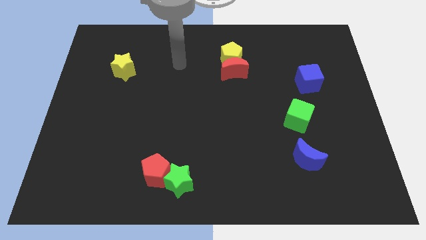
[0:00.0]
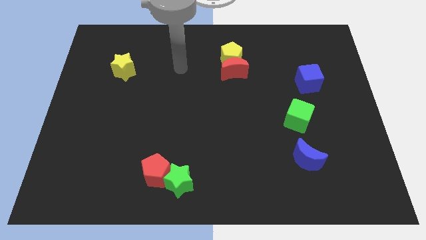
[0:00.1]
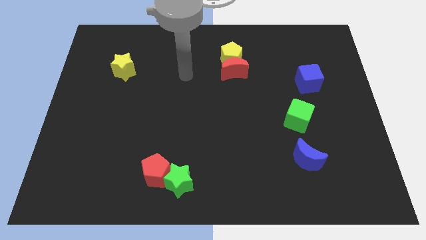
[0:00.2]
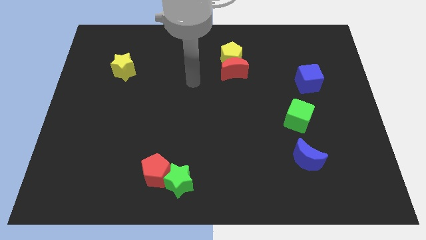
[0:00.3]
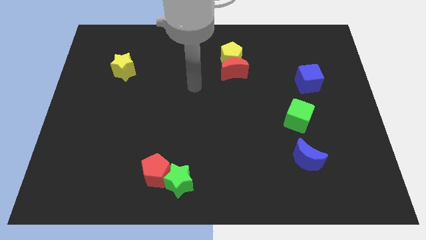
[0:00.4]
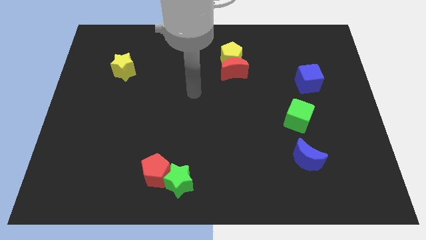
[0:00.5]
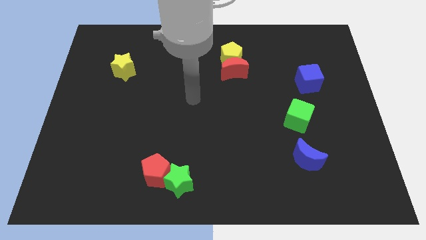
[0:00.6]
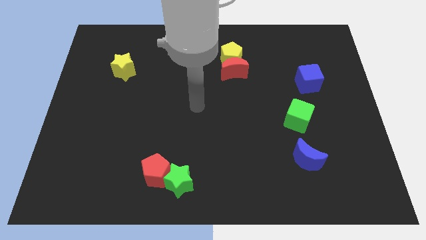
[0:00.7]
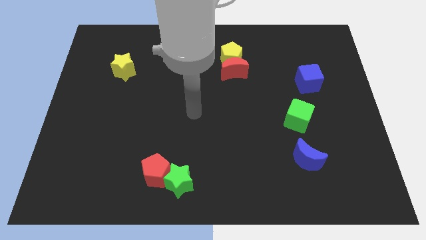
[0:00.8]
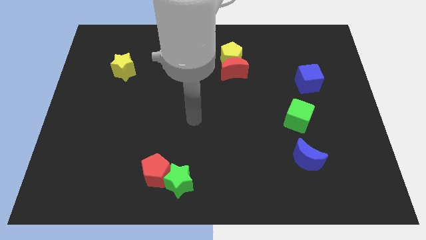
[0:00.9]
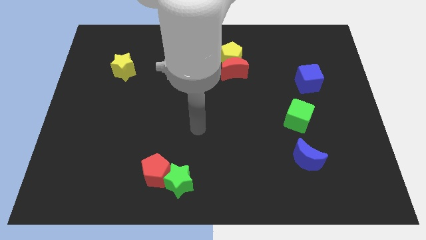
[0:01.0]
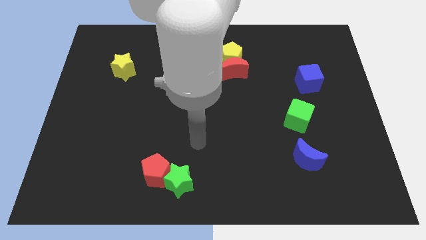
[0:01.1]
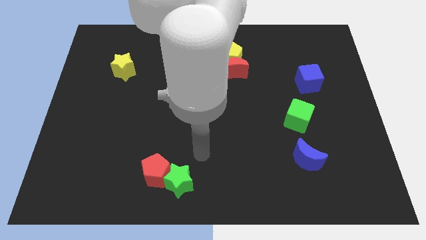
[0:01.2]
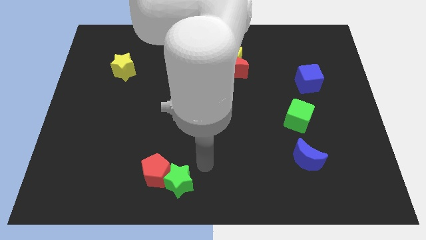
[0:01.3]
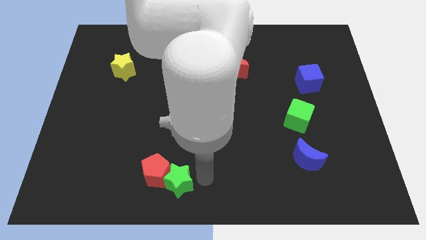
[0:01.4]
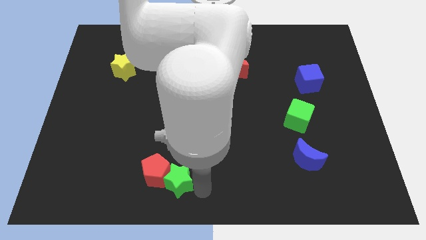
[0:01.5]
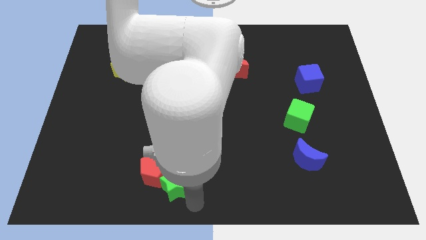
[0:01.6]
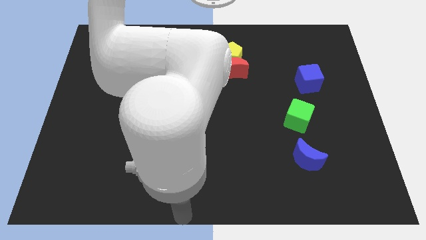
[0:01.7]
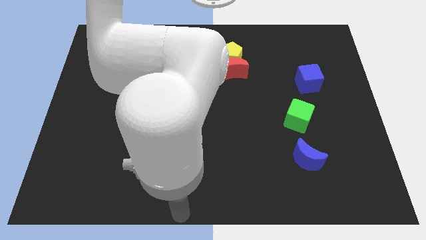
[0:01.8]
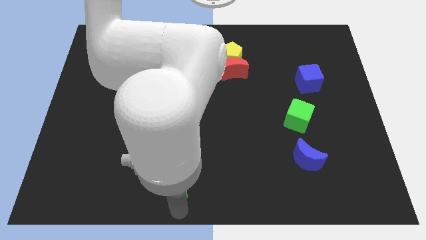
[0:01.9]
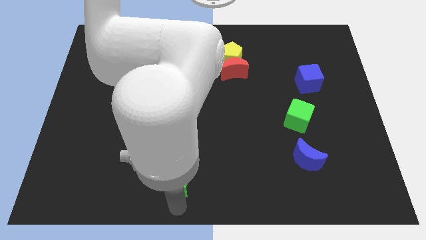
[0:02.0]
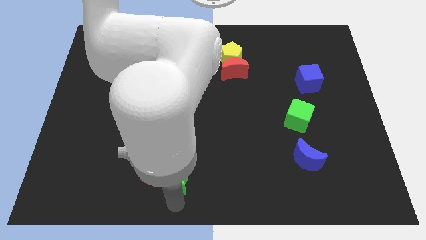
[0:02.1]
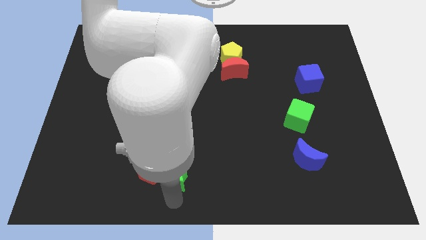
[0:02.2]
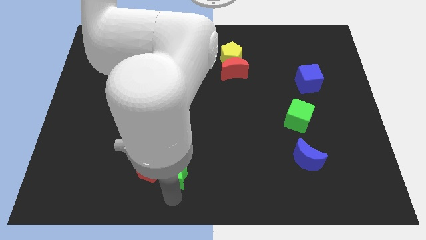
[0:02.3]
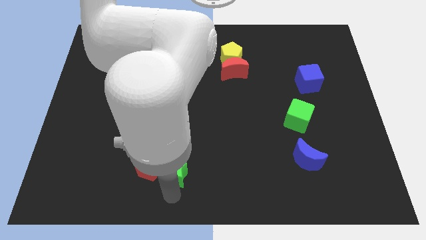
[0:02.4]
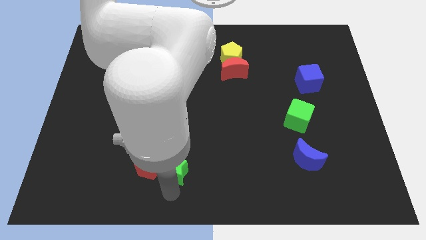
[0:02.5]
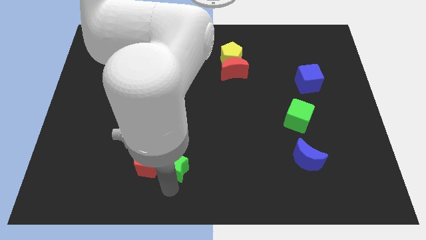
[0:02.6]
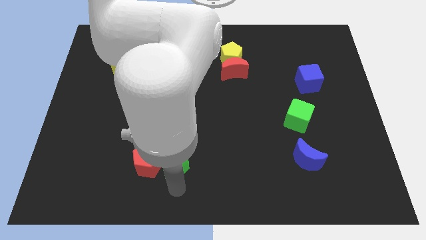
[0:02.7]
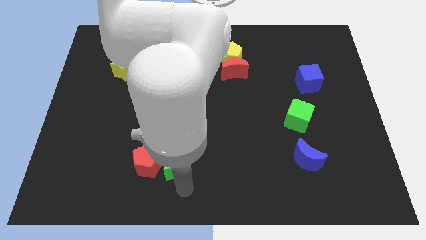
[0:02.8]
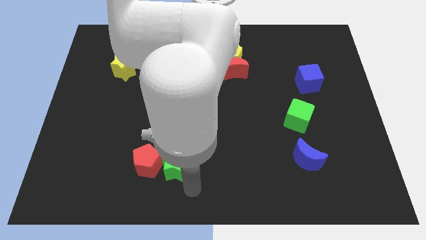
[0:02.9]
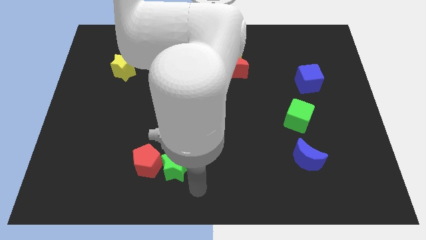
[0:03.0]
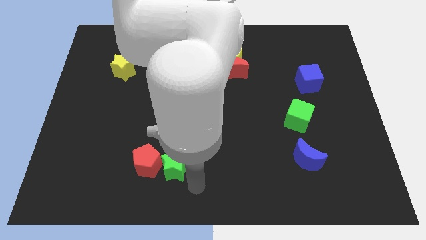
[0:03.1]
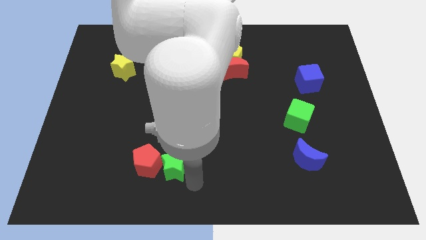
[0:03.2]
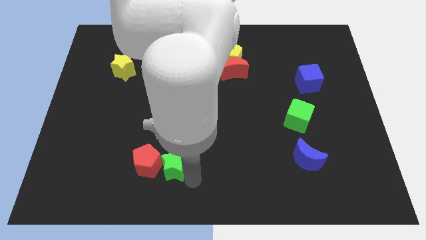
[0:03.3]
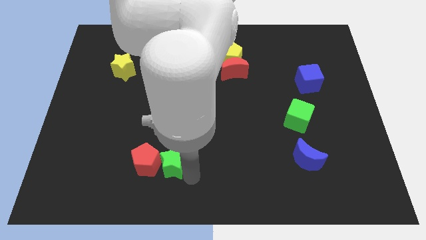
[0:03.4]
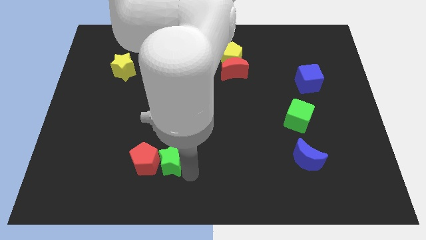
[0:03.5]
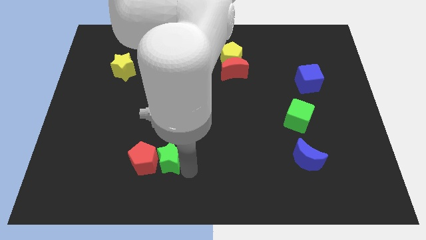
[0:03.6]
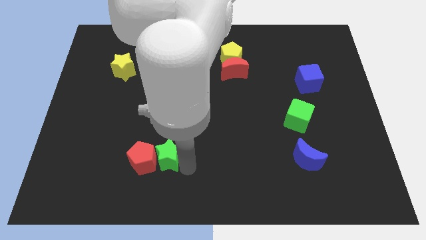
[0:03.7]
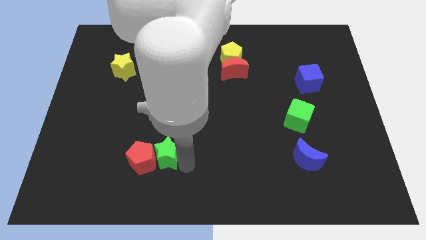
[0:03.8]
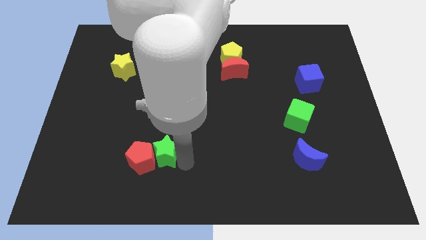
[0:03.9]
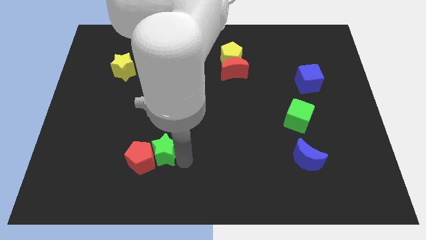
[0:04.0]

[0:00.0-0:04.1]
push the green star somewhat up and to the left

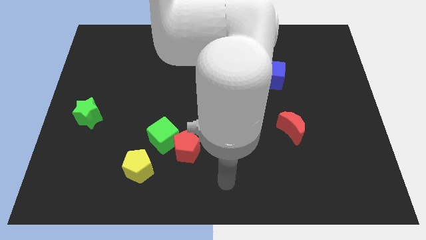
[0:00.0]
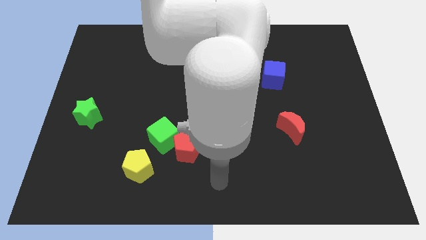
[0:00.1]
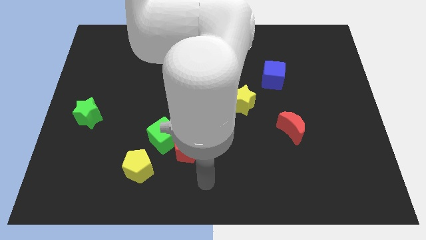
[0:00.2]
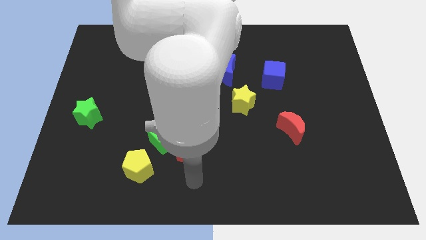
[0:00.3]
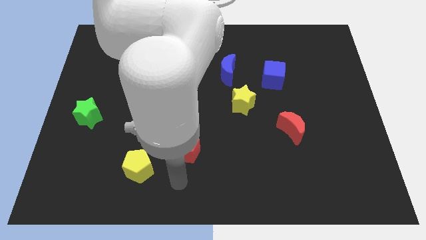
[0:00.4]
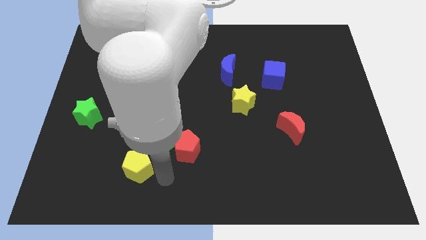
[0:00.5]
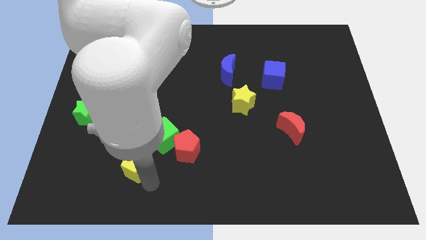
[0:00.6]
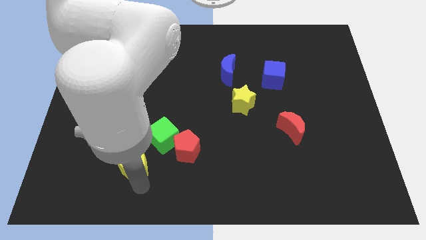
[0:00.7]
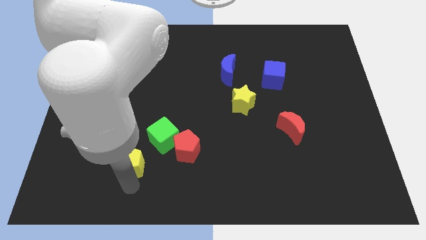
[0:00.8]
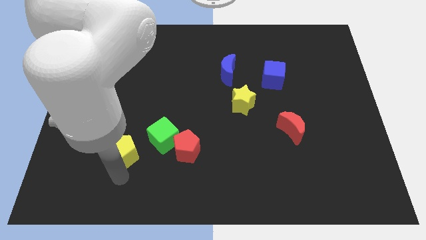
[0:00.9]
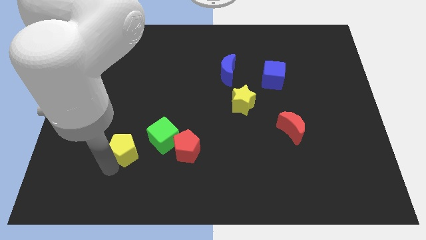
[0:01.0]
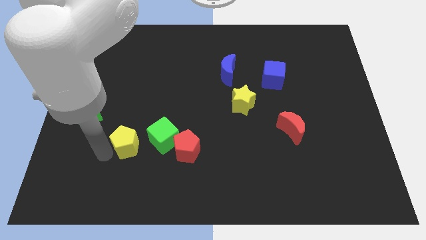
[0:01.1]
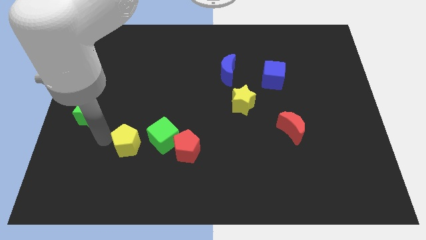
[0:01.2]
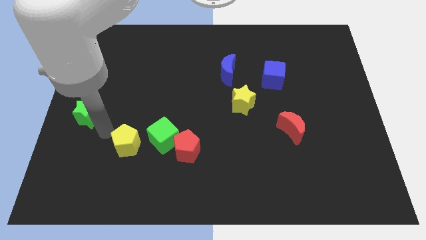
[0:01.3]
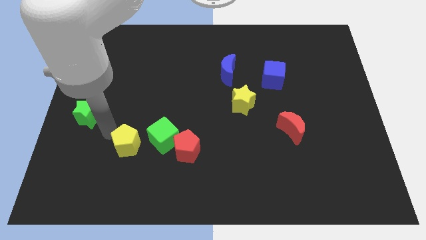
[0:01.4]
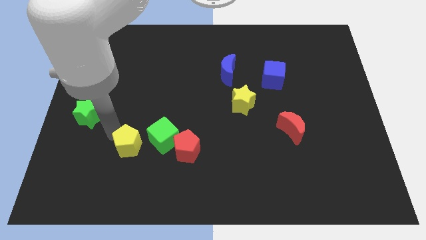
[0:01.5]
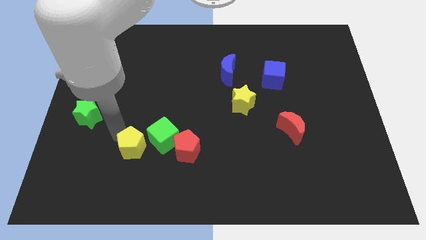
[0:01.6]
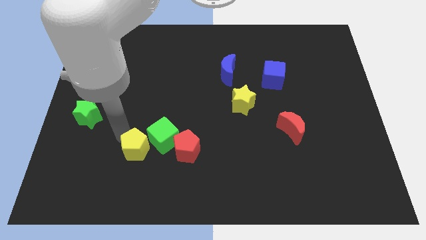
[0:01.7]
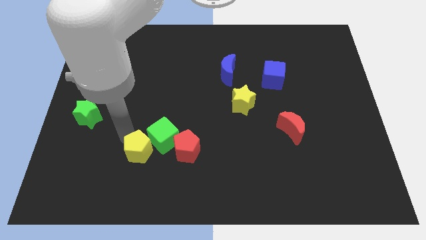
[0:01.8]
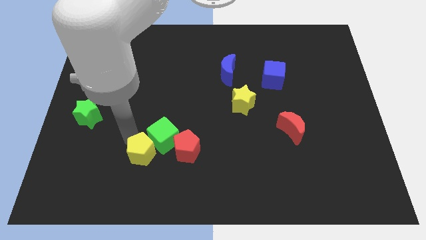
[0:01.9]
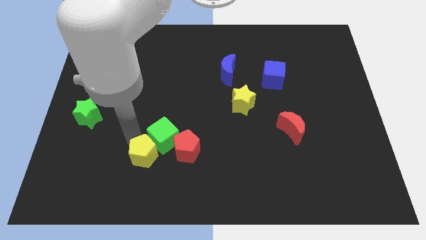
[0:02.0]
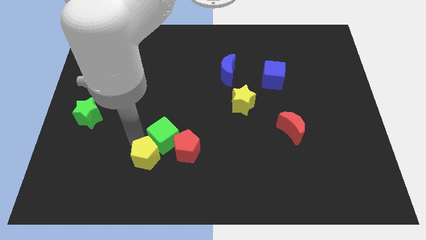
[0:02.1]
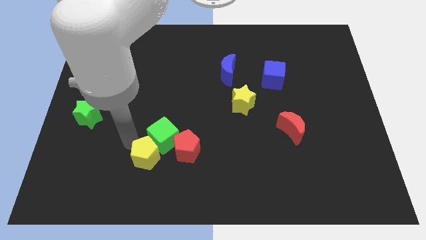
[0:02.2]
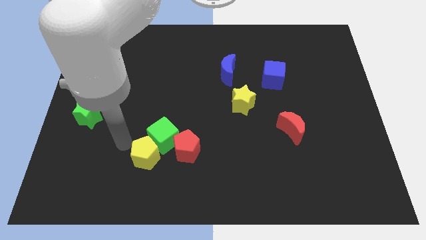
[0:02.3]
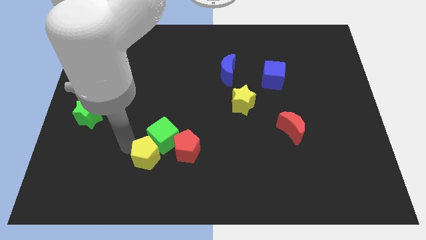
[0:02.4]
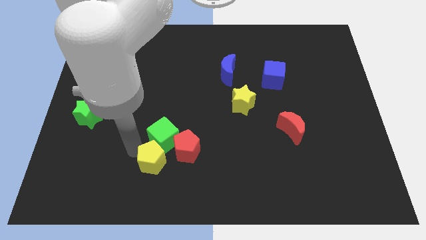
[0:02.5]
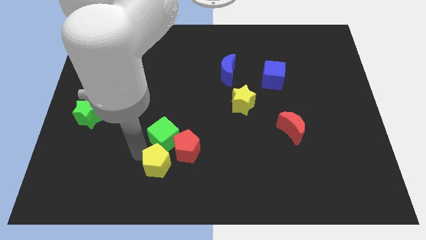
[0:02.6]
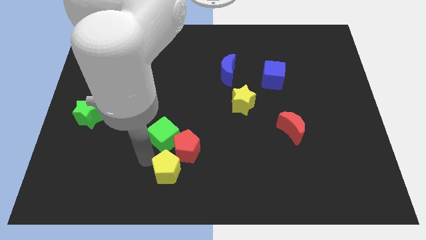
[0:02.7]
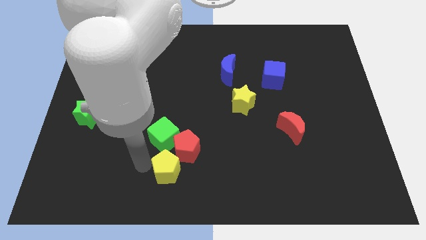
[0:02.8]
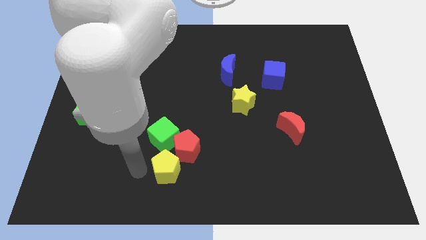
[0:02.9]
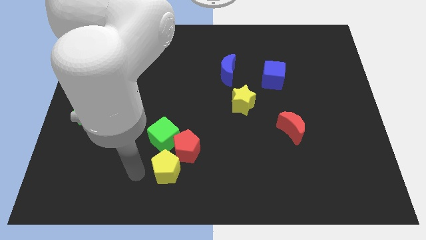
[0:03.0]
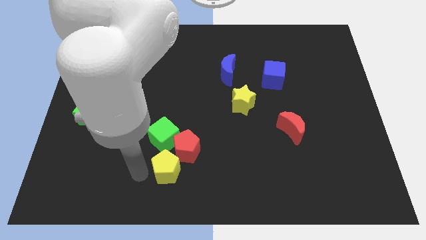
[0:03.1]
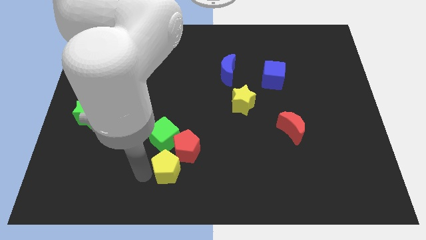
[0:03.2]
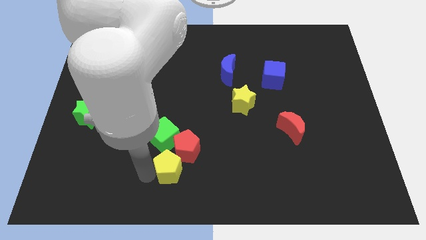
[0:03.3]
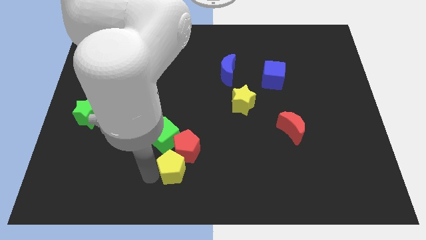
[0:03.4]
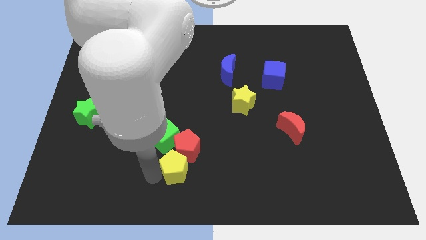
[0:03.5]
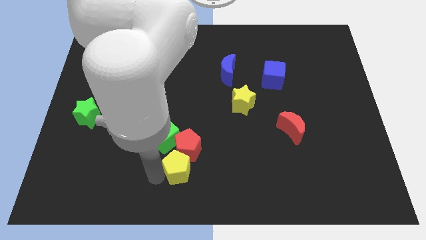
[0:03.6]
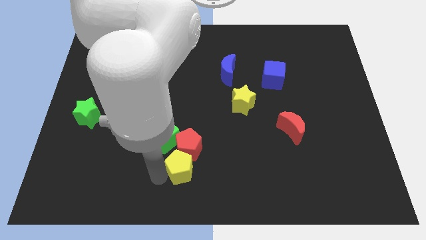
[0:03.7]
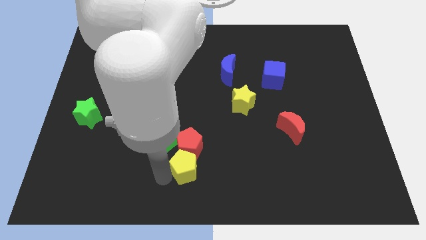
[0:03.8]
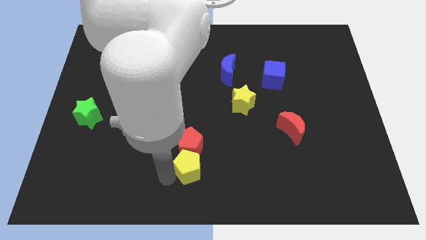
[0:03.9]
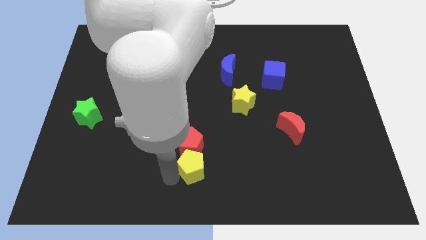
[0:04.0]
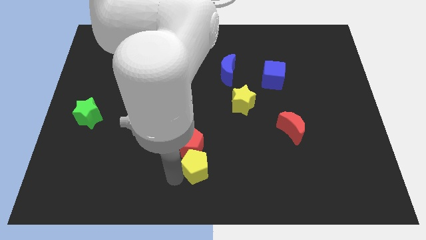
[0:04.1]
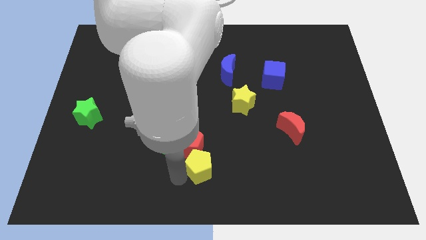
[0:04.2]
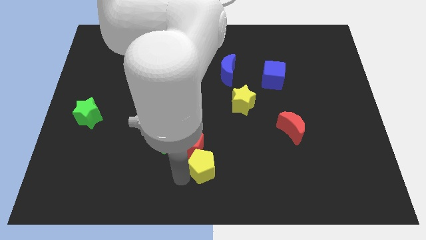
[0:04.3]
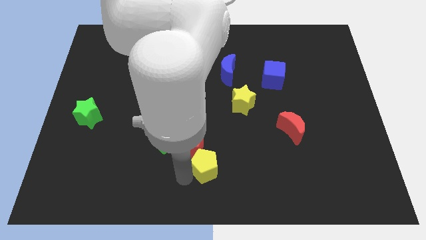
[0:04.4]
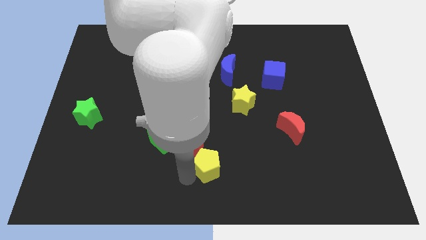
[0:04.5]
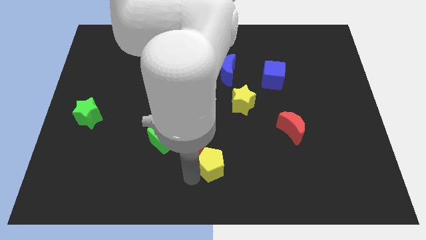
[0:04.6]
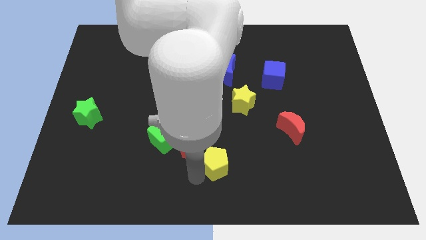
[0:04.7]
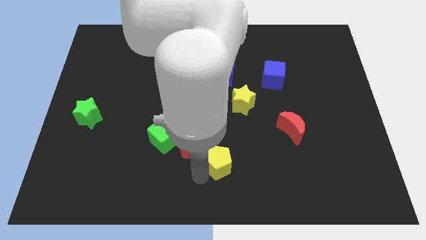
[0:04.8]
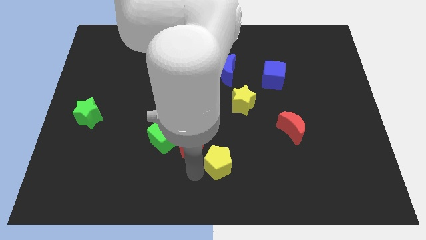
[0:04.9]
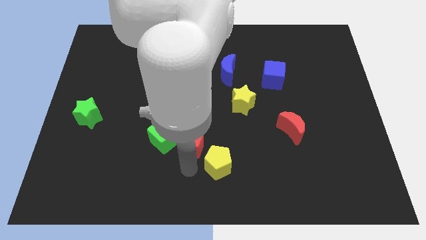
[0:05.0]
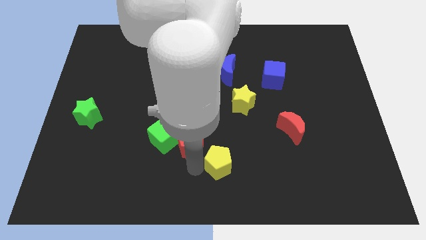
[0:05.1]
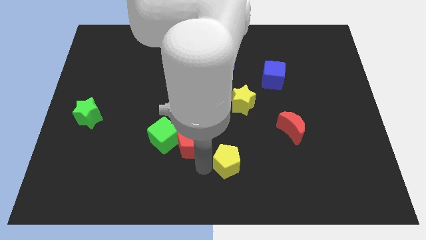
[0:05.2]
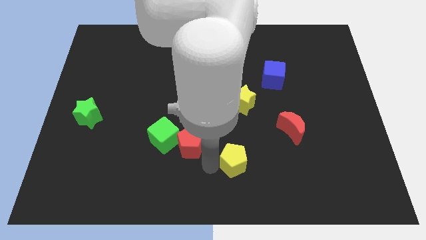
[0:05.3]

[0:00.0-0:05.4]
slide the yellow pentagon to the right
